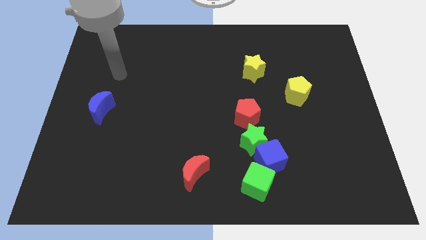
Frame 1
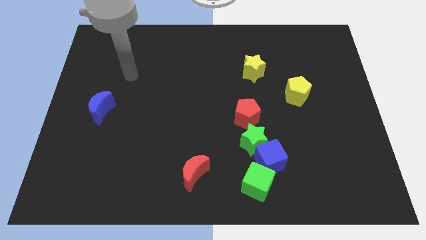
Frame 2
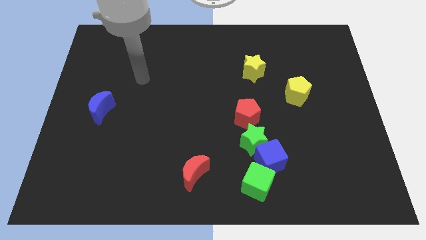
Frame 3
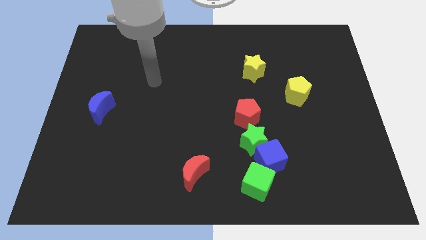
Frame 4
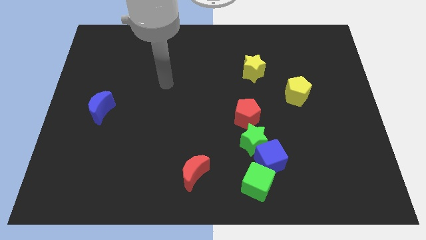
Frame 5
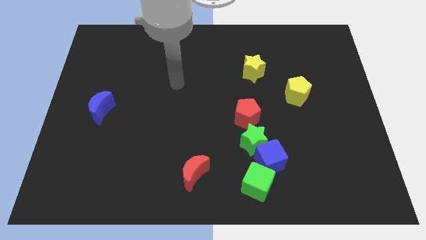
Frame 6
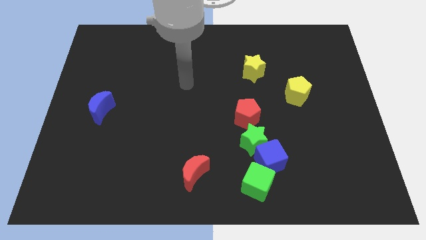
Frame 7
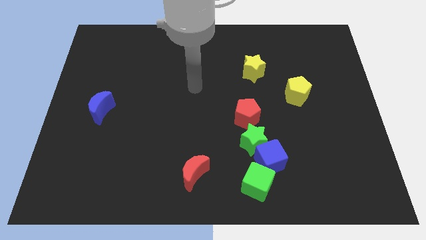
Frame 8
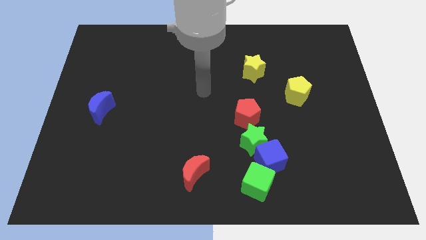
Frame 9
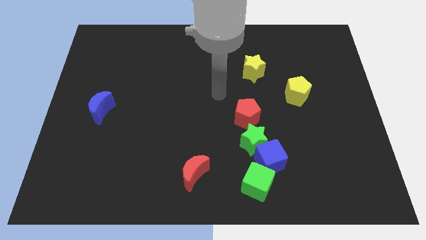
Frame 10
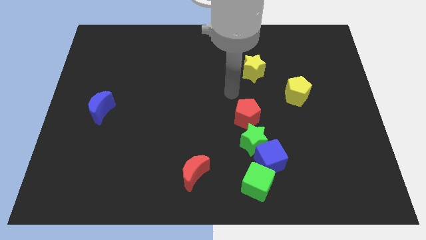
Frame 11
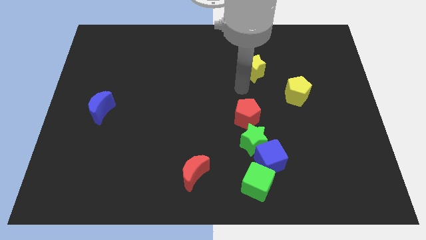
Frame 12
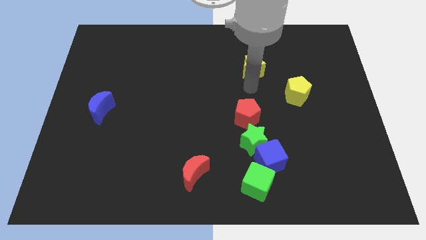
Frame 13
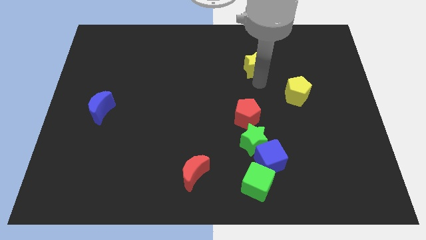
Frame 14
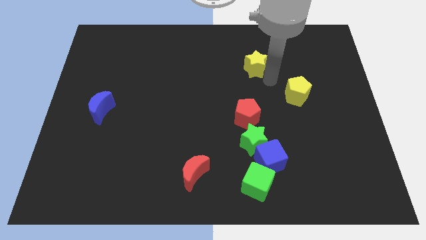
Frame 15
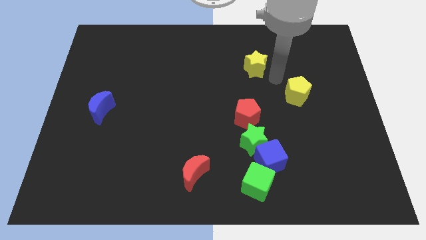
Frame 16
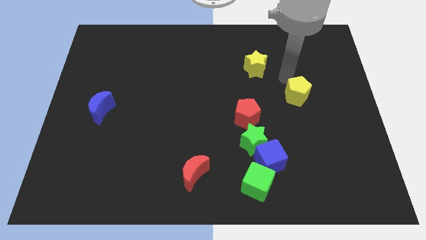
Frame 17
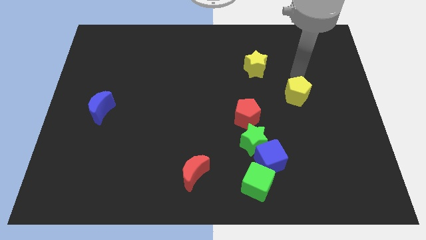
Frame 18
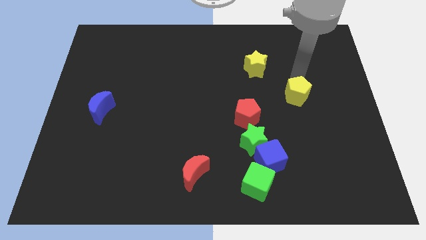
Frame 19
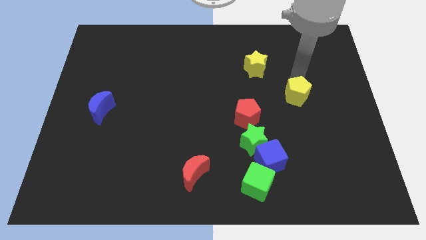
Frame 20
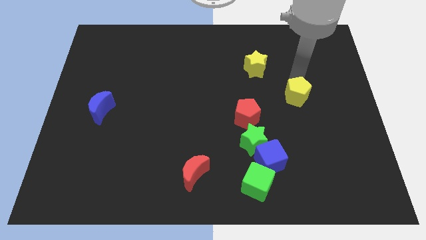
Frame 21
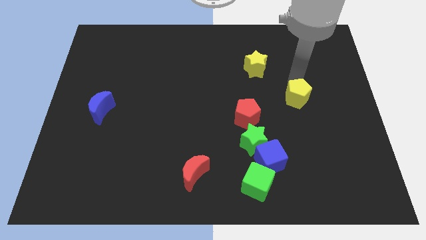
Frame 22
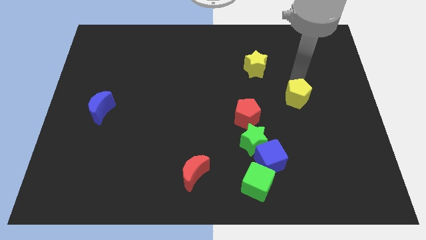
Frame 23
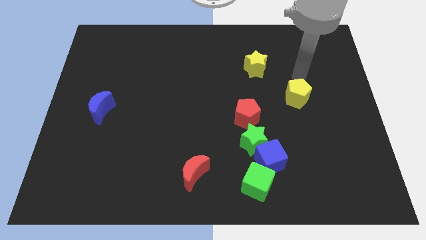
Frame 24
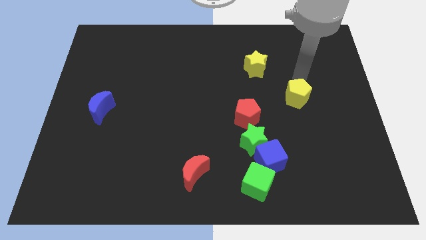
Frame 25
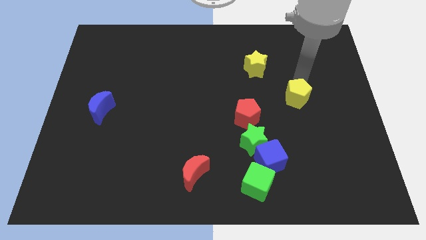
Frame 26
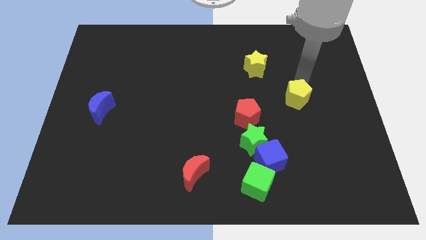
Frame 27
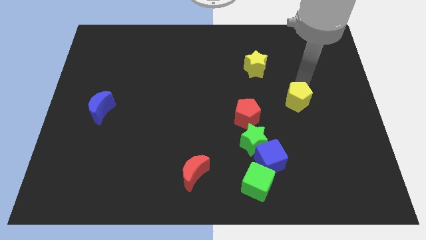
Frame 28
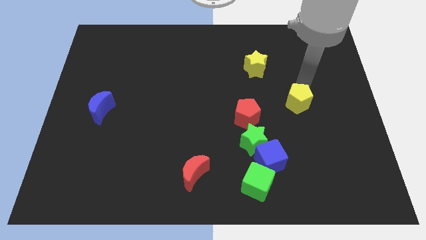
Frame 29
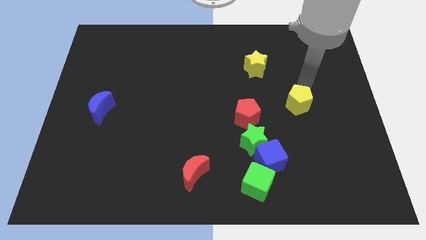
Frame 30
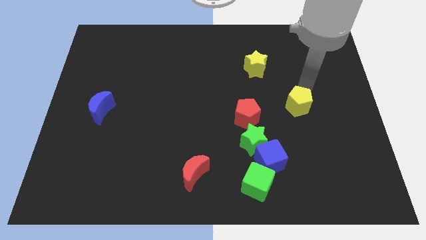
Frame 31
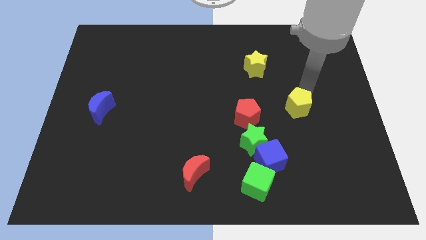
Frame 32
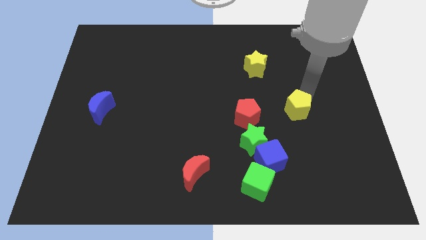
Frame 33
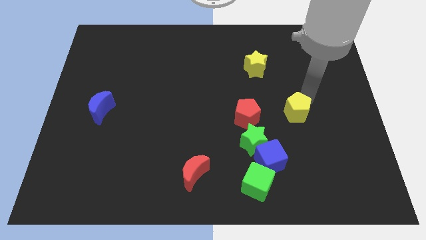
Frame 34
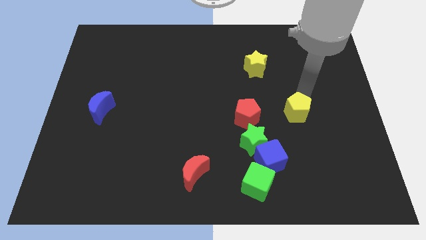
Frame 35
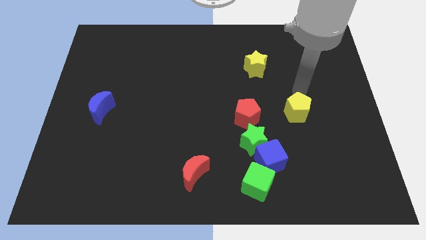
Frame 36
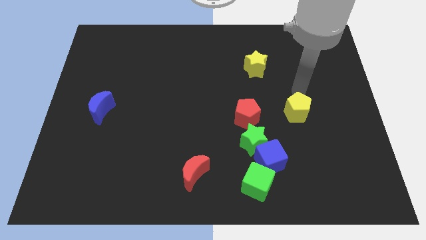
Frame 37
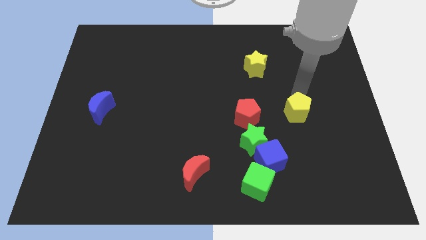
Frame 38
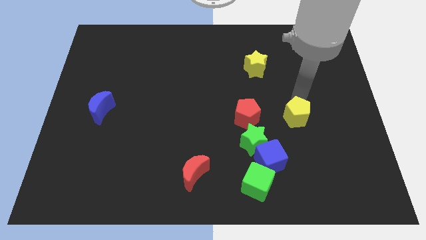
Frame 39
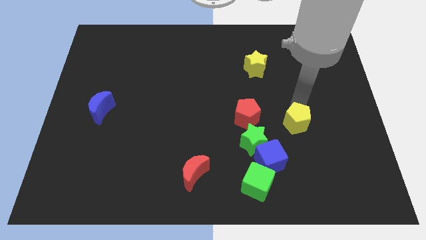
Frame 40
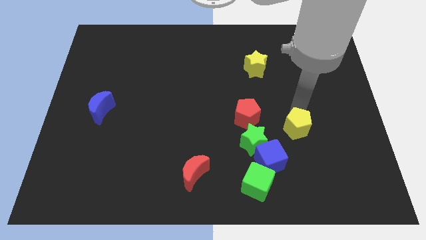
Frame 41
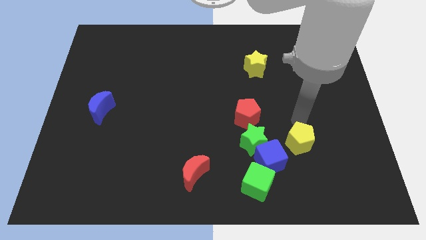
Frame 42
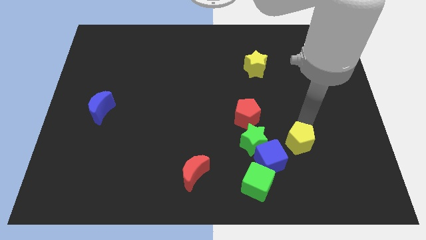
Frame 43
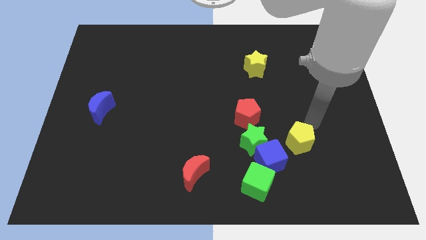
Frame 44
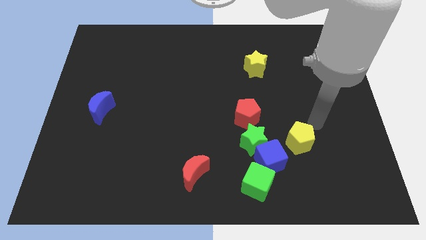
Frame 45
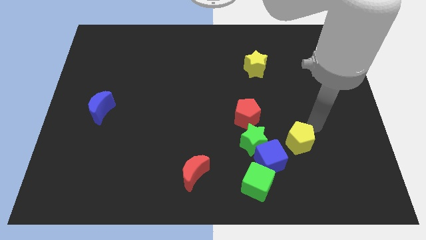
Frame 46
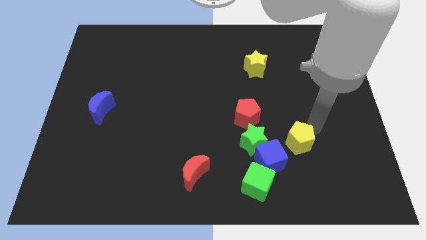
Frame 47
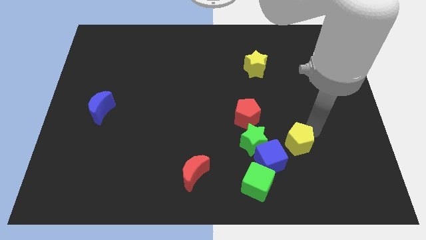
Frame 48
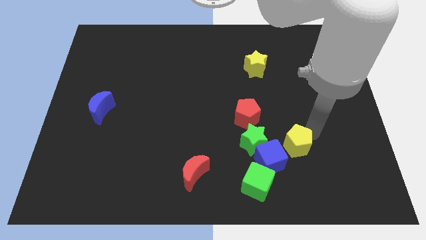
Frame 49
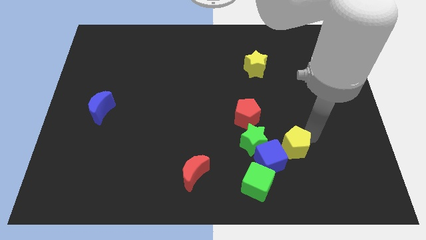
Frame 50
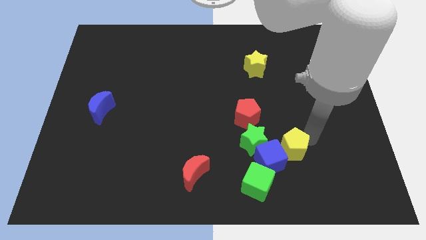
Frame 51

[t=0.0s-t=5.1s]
put the yellow pentagon to the bottom right side of the green star

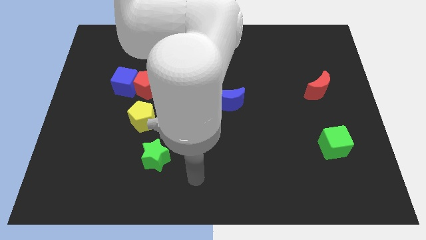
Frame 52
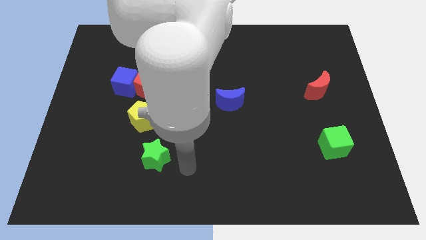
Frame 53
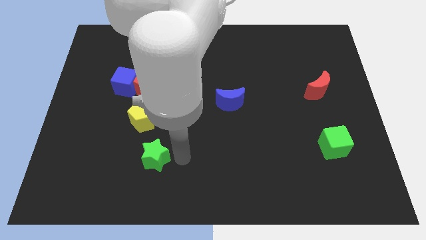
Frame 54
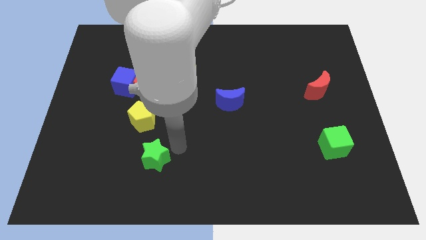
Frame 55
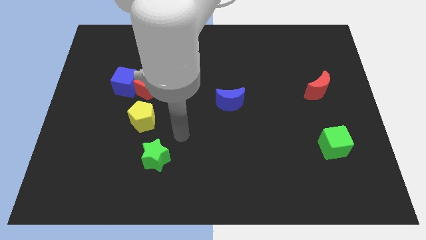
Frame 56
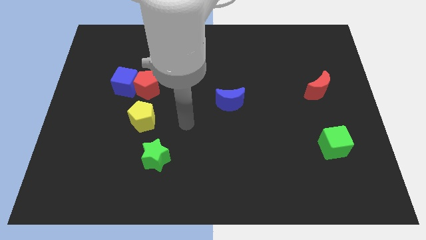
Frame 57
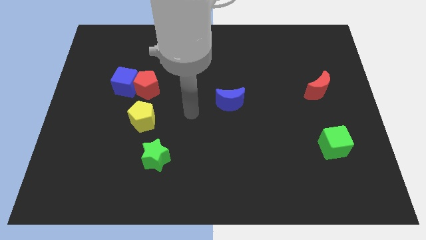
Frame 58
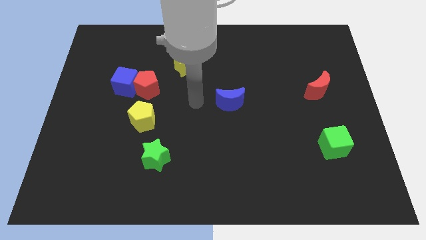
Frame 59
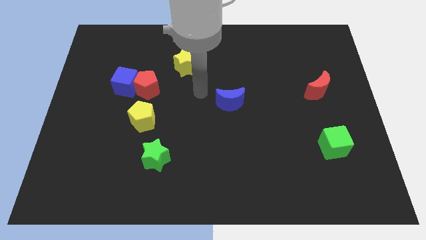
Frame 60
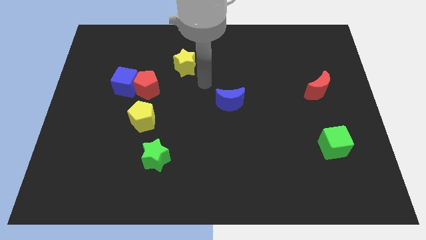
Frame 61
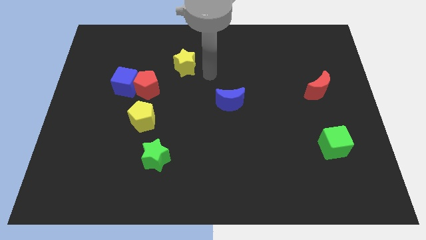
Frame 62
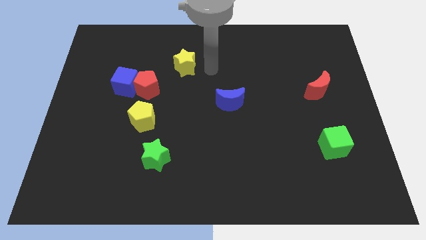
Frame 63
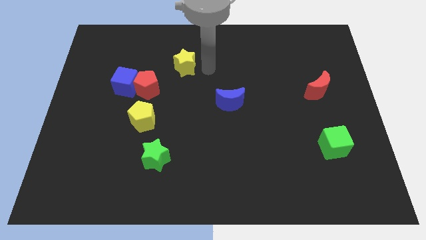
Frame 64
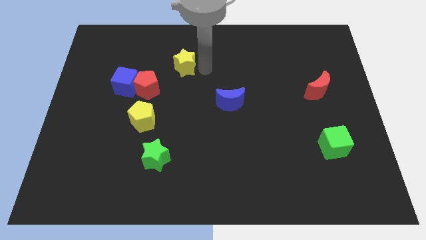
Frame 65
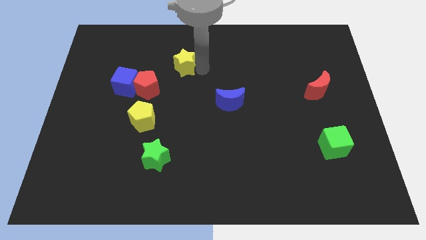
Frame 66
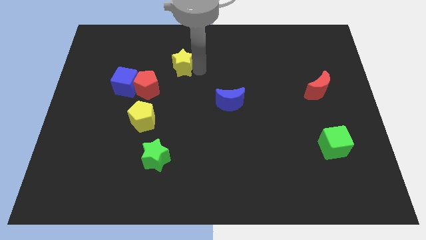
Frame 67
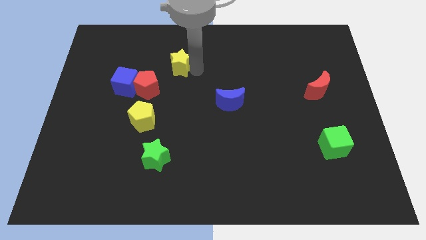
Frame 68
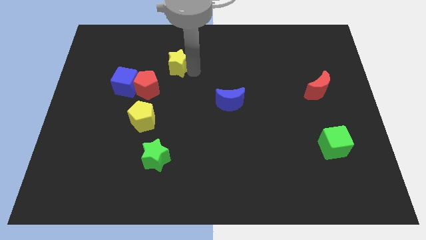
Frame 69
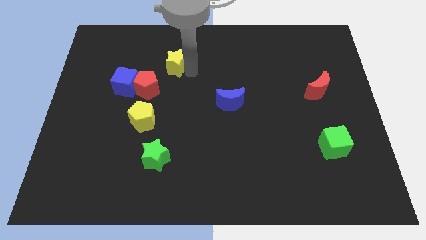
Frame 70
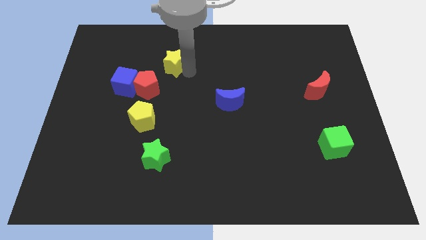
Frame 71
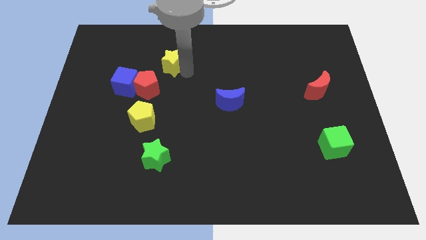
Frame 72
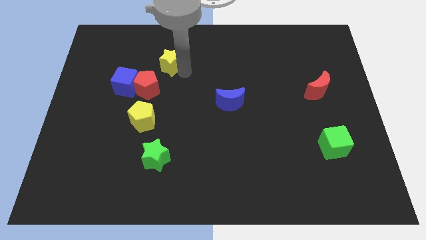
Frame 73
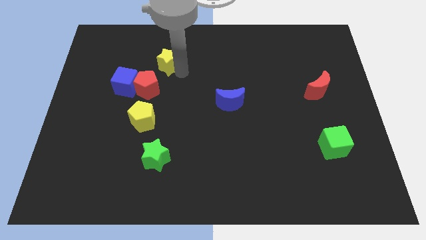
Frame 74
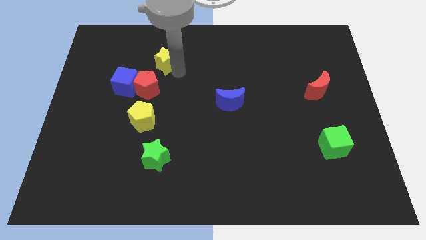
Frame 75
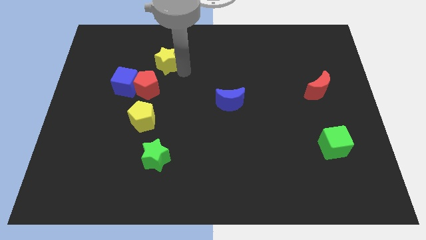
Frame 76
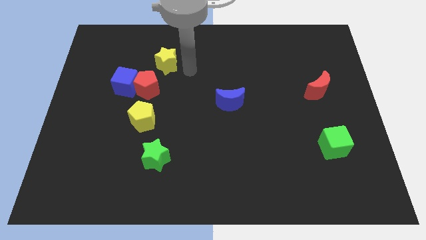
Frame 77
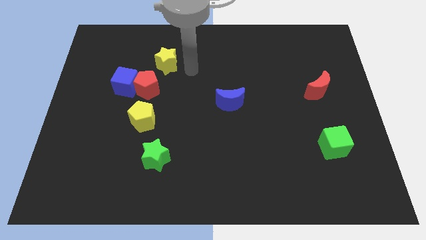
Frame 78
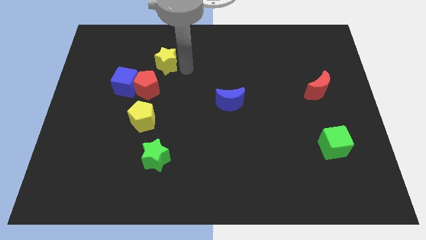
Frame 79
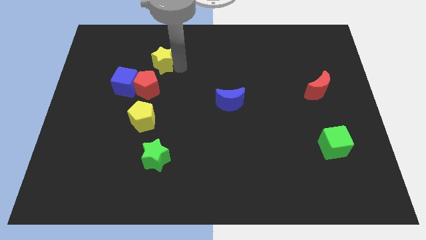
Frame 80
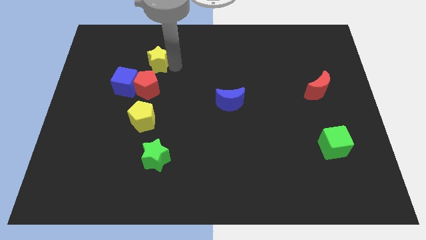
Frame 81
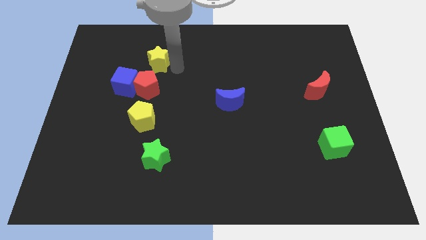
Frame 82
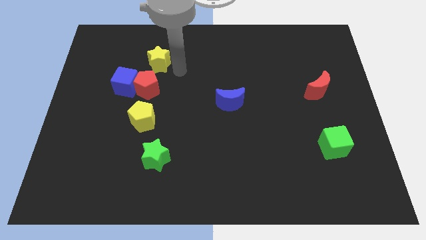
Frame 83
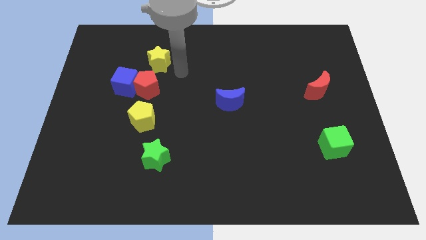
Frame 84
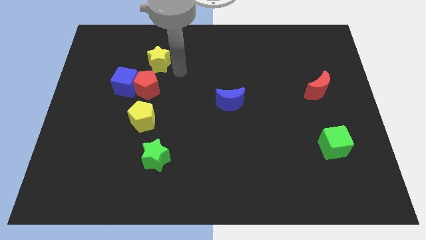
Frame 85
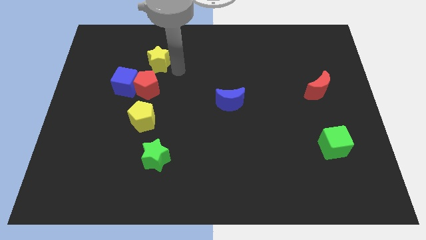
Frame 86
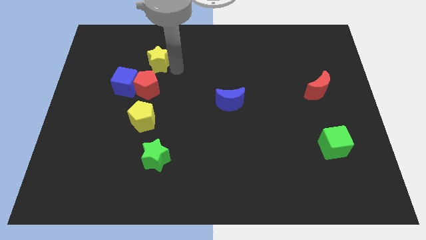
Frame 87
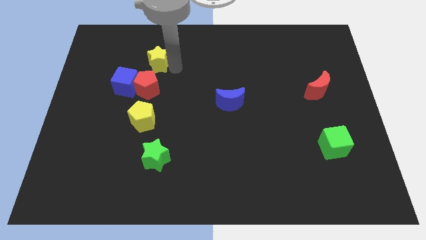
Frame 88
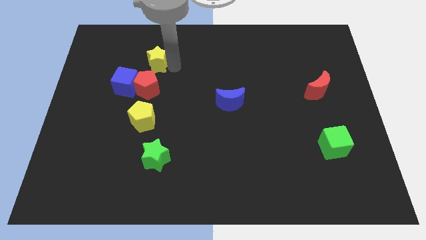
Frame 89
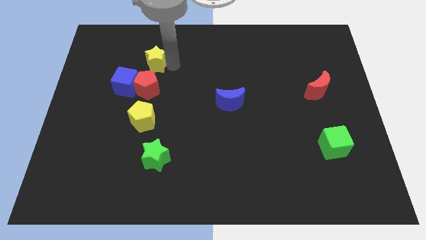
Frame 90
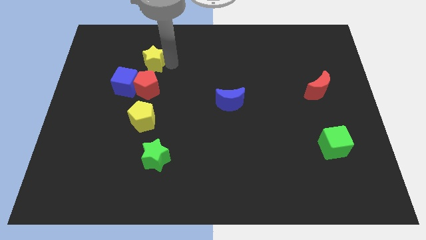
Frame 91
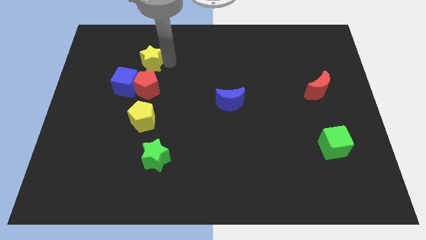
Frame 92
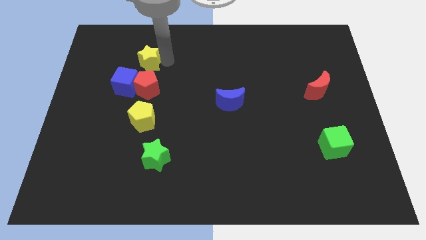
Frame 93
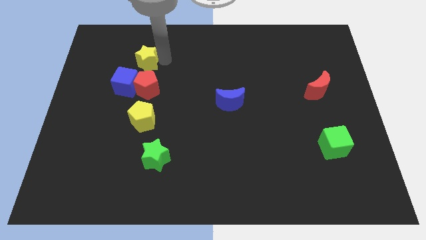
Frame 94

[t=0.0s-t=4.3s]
put the yellow star to the top of the blue cube
